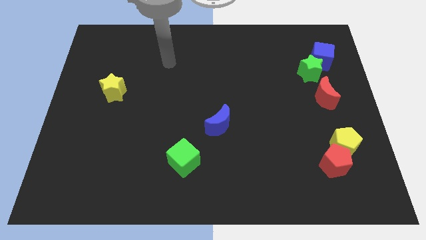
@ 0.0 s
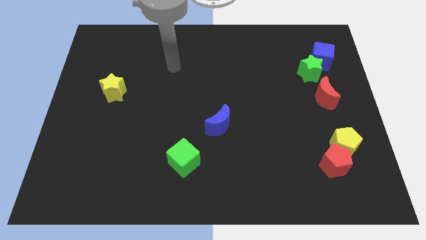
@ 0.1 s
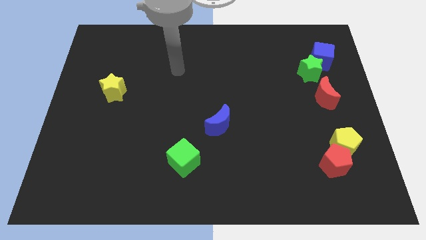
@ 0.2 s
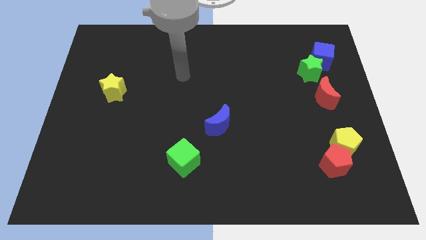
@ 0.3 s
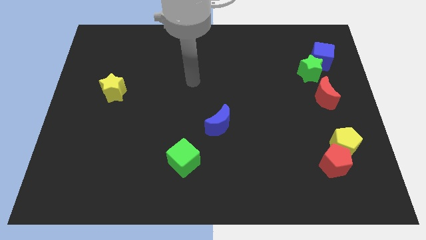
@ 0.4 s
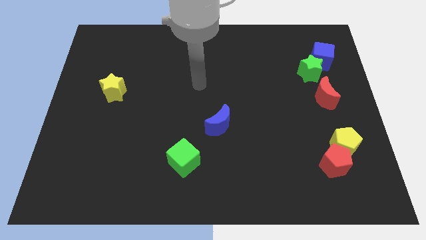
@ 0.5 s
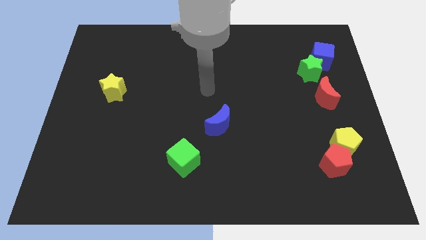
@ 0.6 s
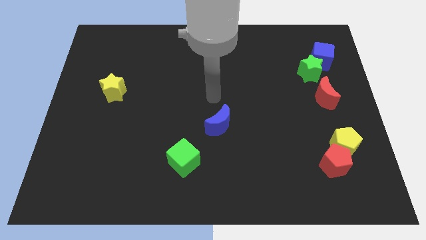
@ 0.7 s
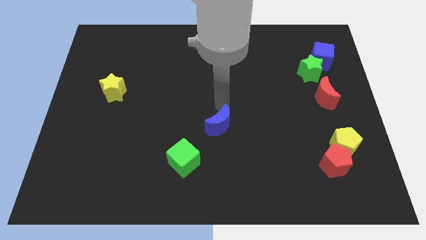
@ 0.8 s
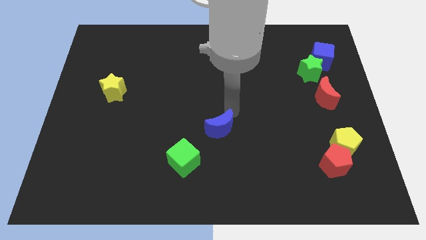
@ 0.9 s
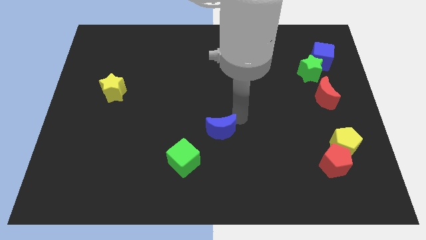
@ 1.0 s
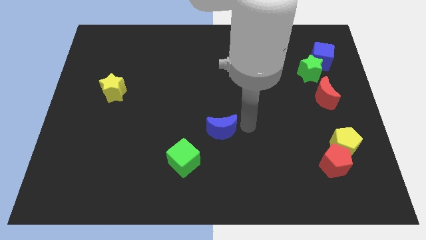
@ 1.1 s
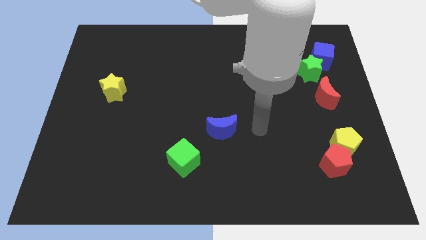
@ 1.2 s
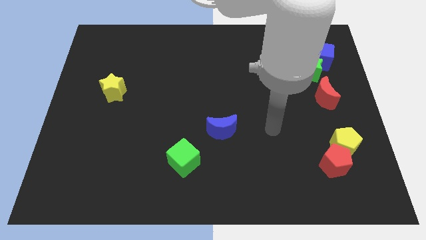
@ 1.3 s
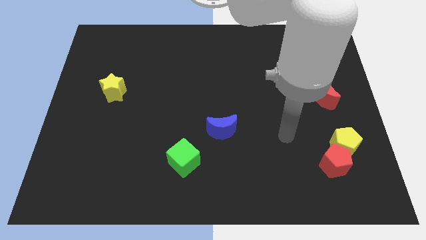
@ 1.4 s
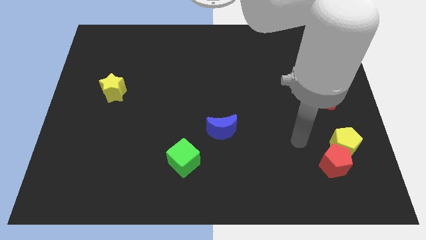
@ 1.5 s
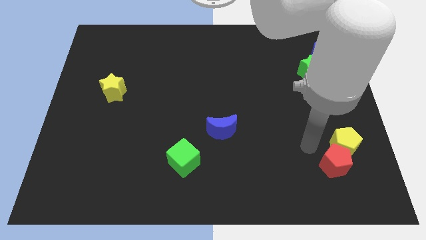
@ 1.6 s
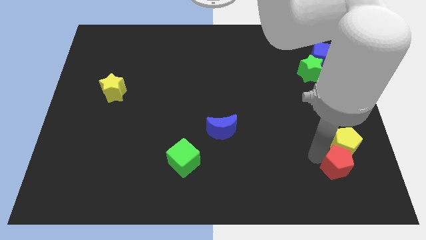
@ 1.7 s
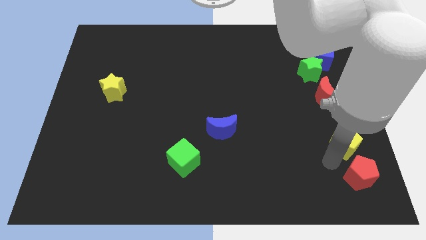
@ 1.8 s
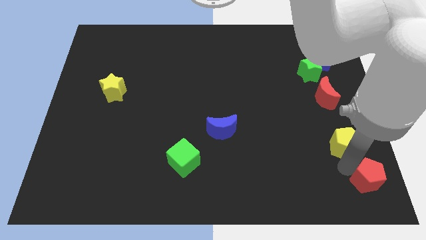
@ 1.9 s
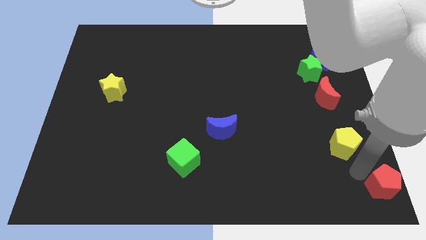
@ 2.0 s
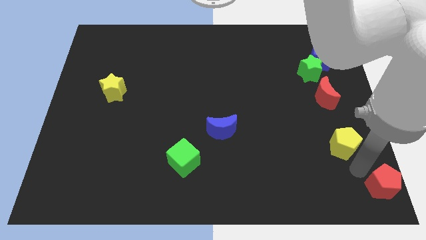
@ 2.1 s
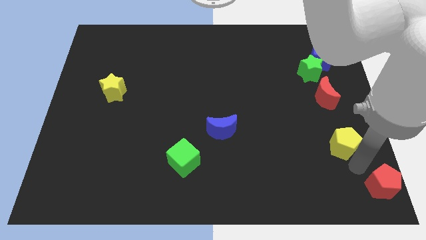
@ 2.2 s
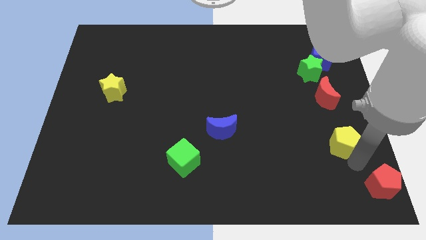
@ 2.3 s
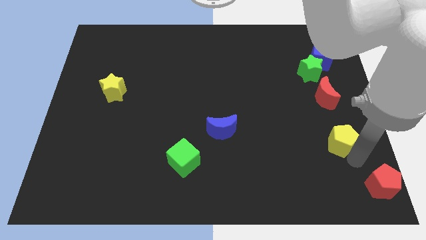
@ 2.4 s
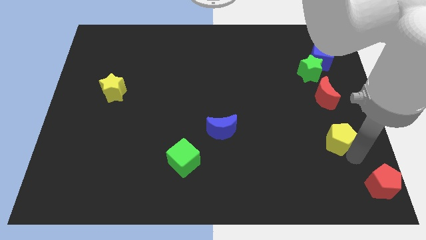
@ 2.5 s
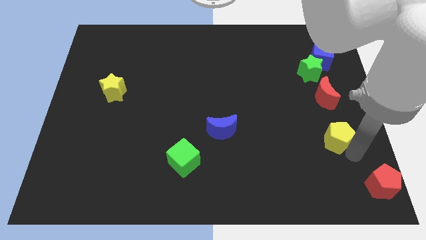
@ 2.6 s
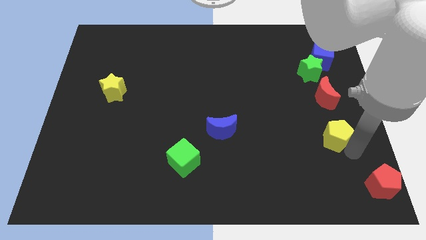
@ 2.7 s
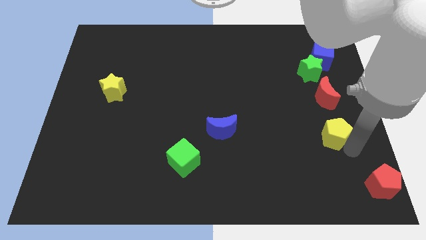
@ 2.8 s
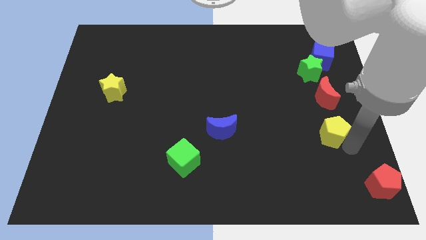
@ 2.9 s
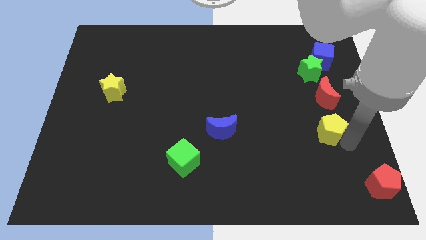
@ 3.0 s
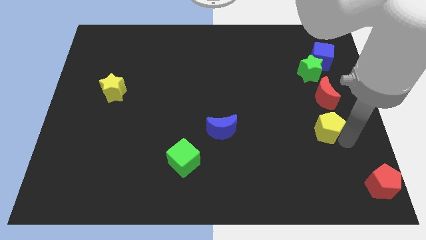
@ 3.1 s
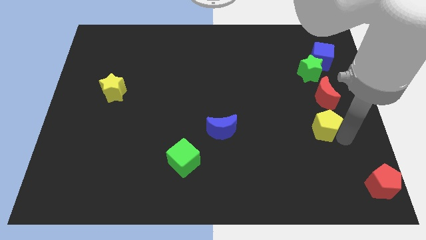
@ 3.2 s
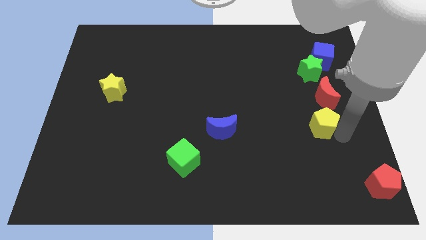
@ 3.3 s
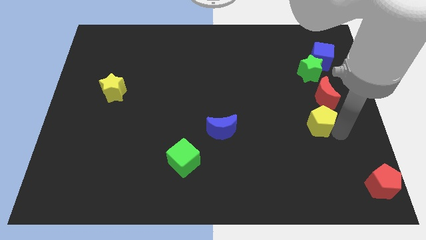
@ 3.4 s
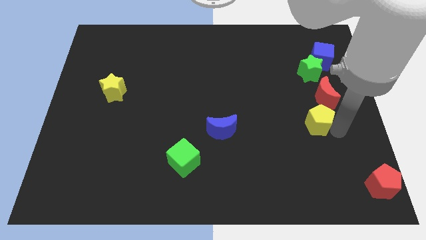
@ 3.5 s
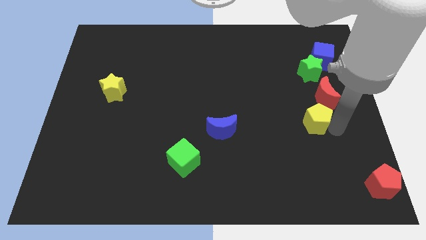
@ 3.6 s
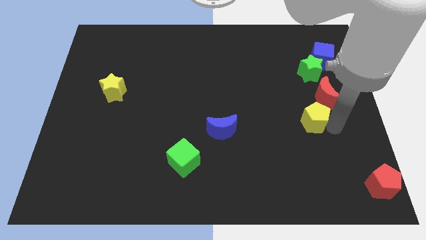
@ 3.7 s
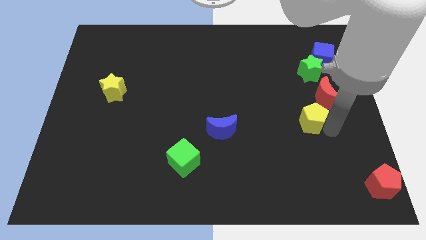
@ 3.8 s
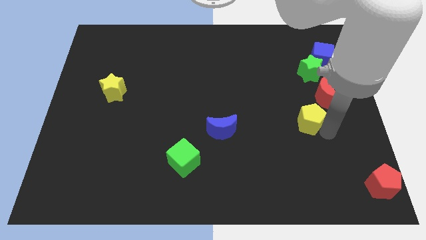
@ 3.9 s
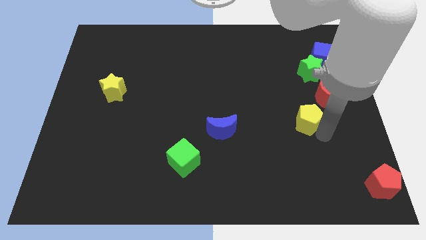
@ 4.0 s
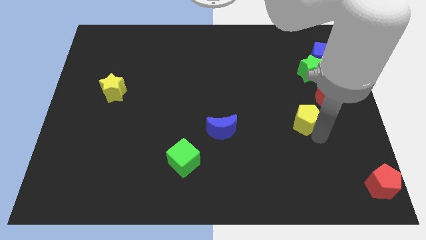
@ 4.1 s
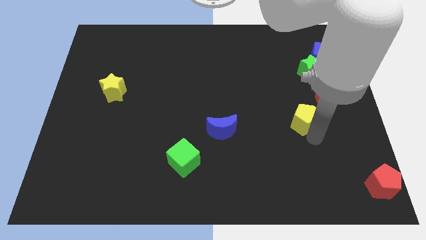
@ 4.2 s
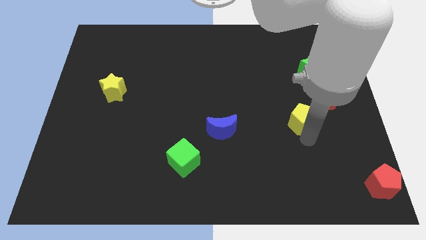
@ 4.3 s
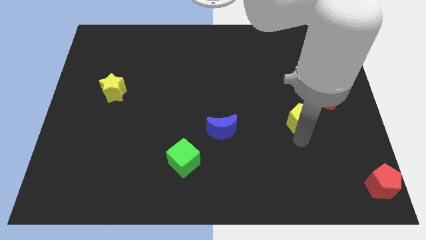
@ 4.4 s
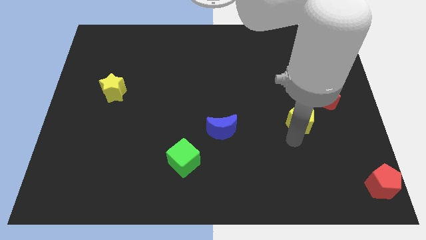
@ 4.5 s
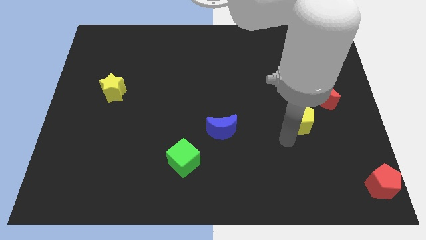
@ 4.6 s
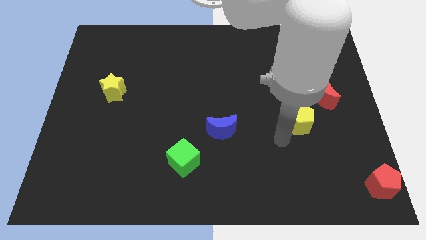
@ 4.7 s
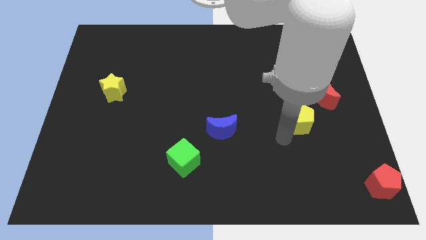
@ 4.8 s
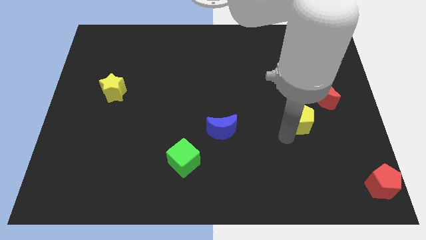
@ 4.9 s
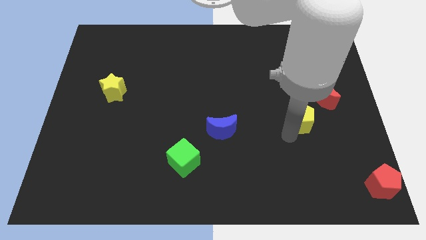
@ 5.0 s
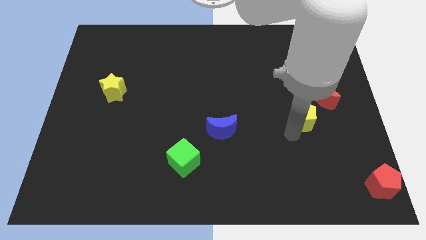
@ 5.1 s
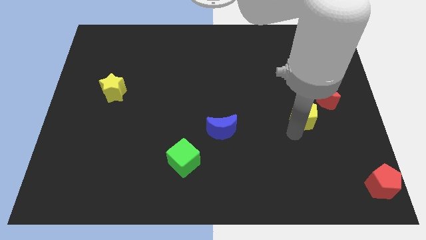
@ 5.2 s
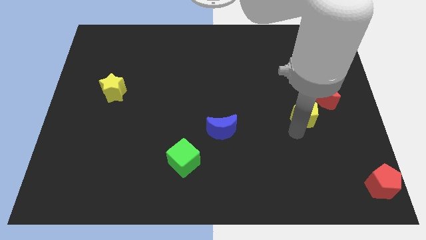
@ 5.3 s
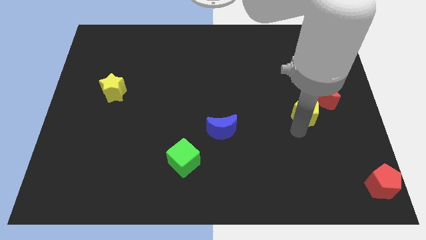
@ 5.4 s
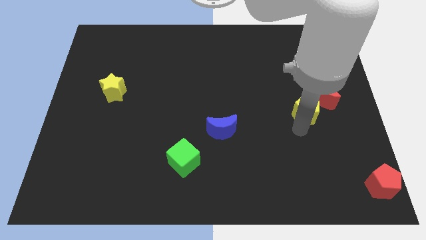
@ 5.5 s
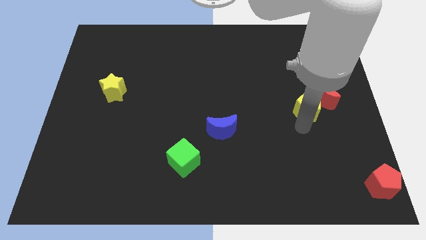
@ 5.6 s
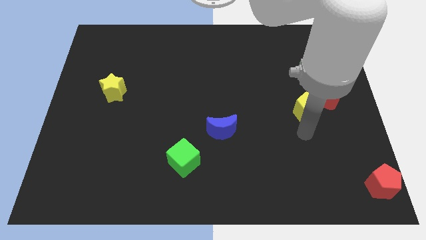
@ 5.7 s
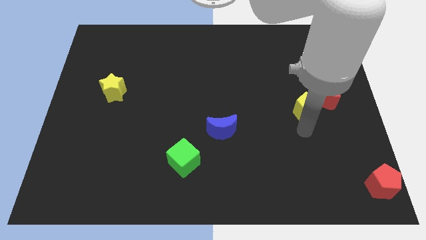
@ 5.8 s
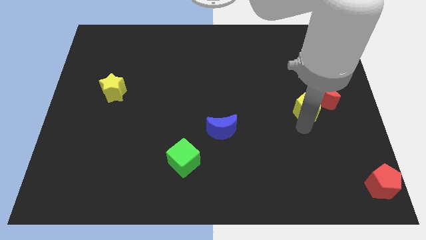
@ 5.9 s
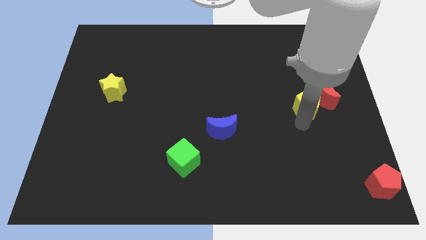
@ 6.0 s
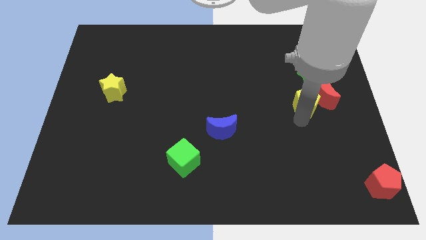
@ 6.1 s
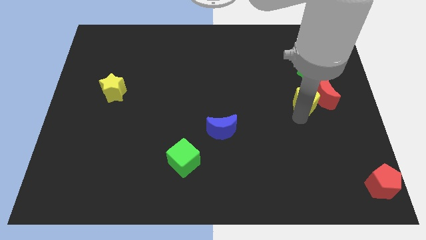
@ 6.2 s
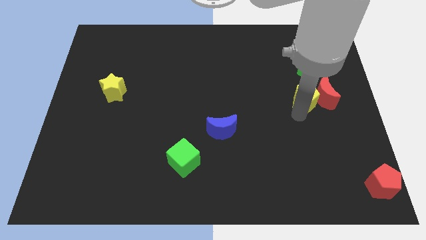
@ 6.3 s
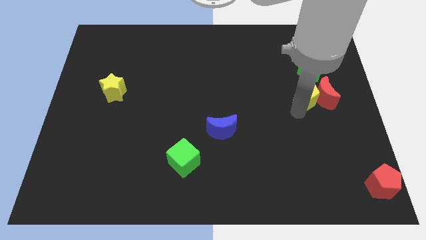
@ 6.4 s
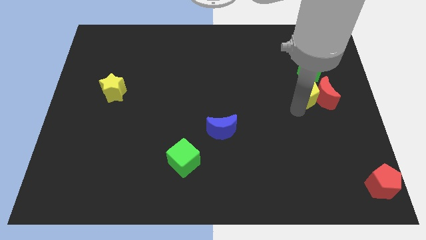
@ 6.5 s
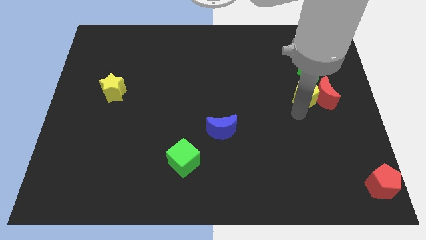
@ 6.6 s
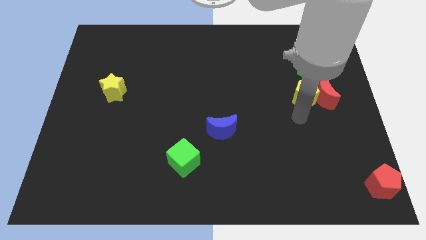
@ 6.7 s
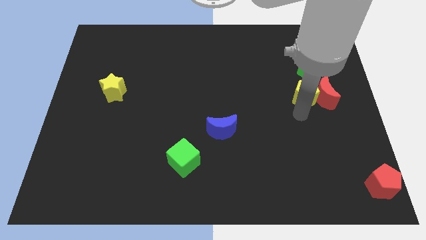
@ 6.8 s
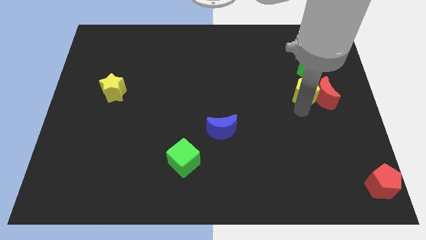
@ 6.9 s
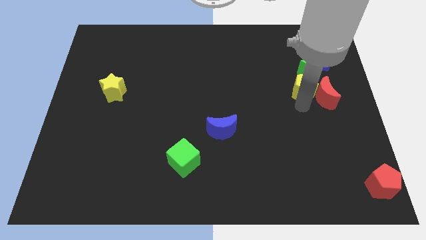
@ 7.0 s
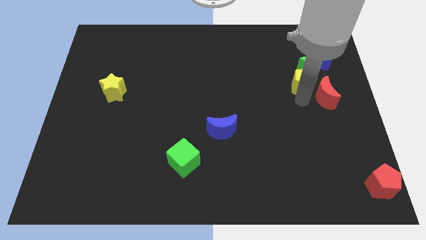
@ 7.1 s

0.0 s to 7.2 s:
put the yellow pentagon close to the green star
